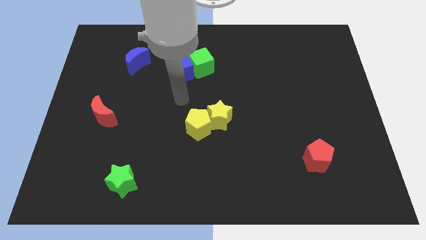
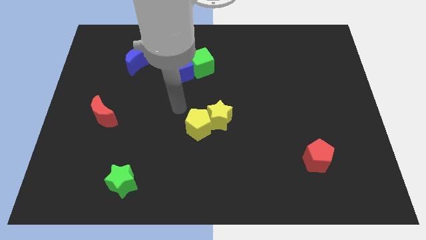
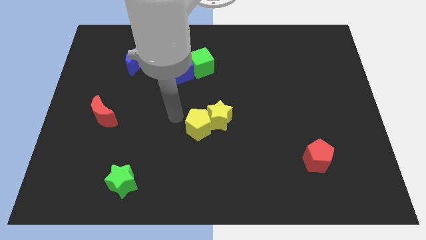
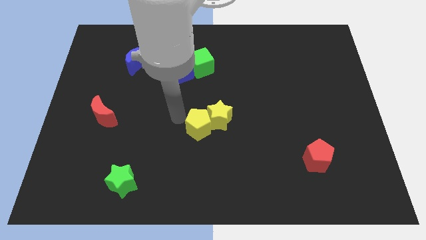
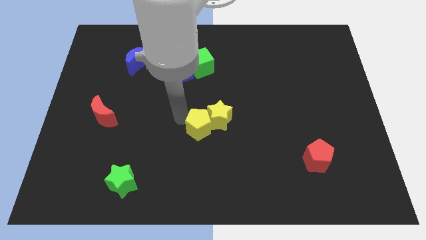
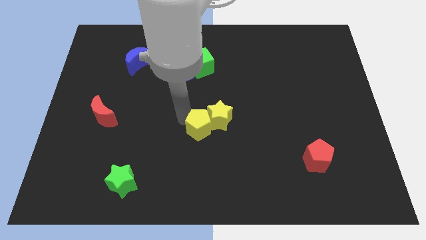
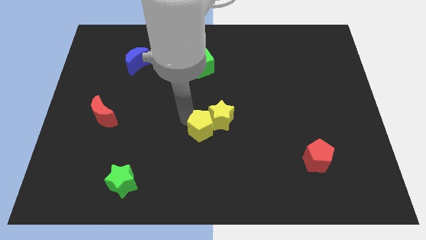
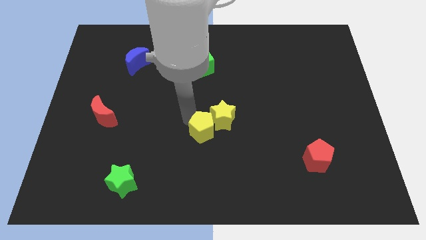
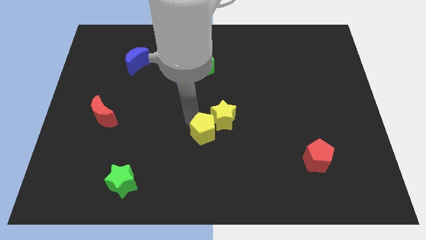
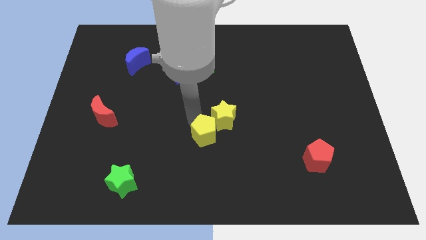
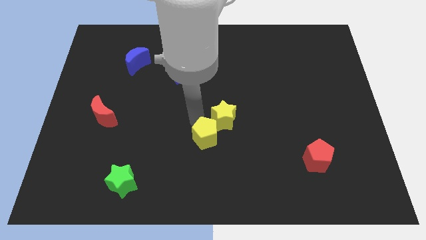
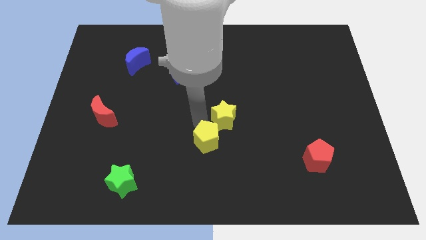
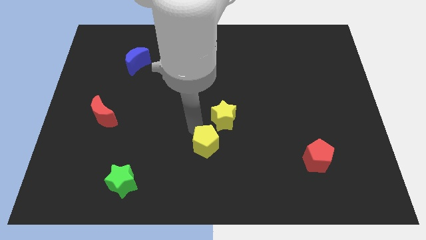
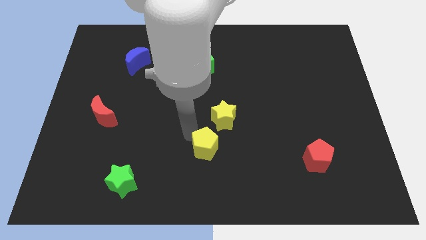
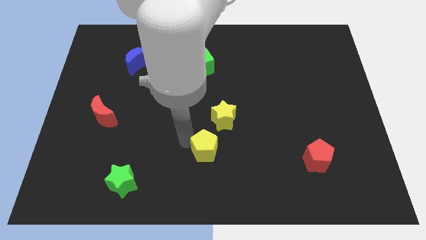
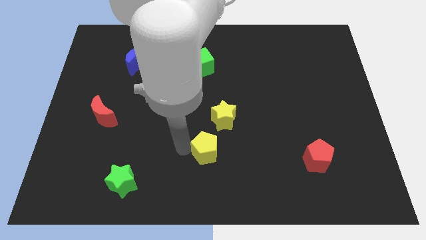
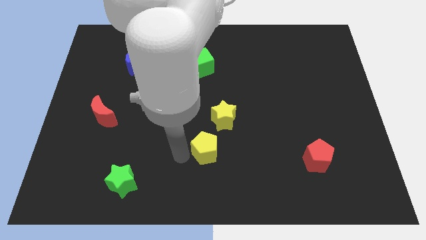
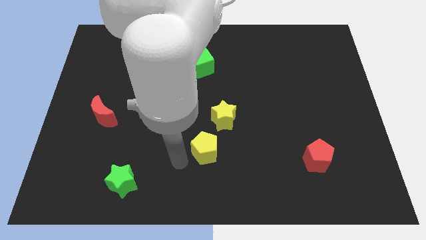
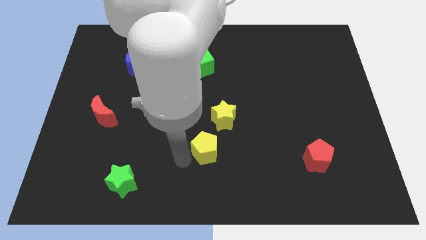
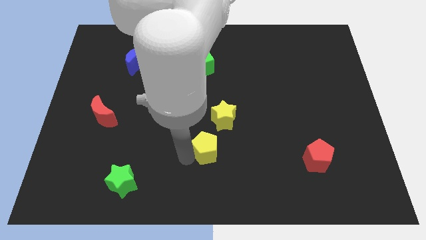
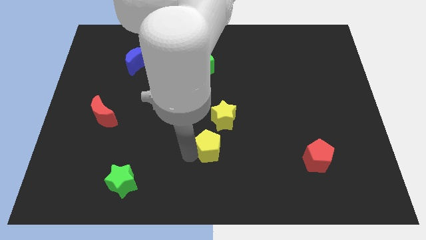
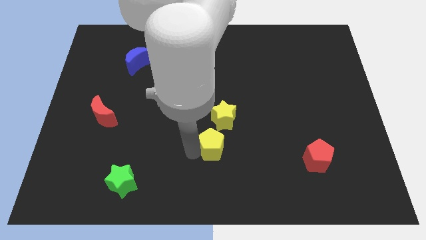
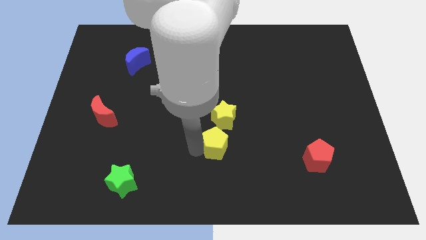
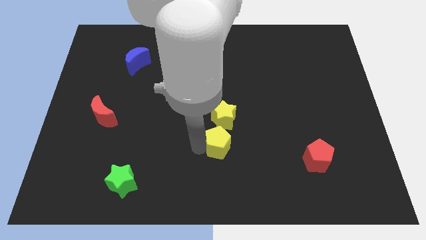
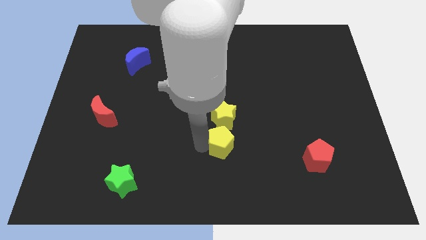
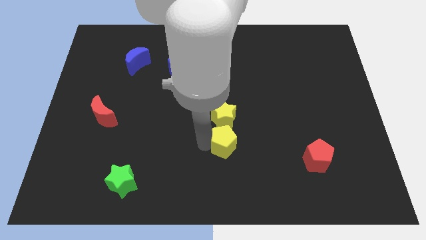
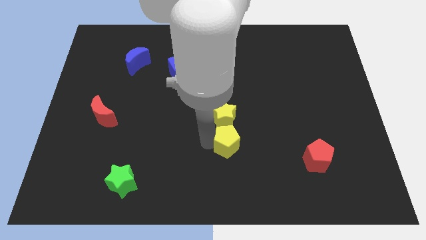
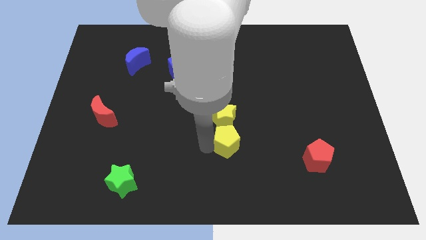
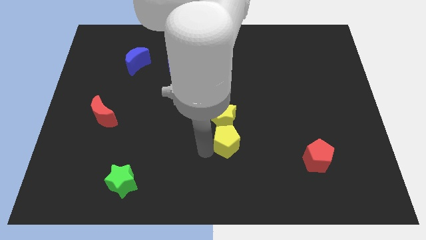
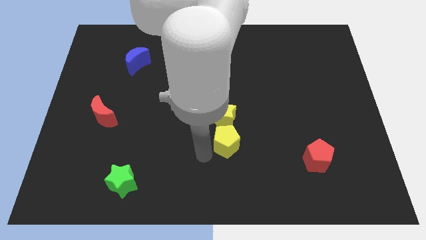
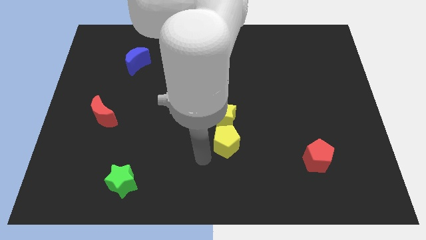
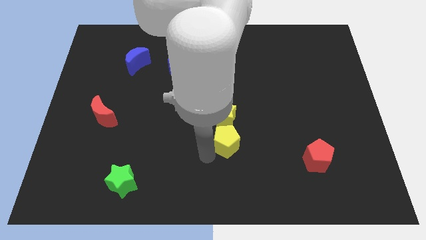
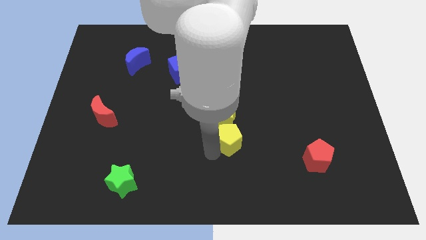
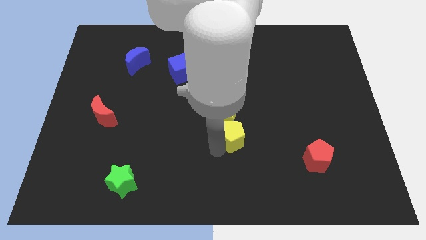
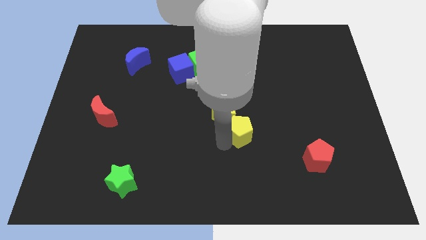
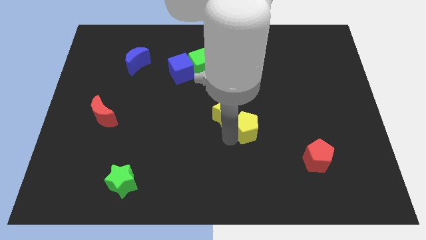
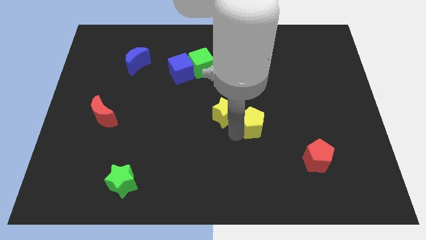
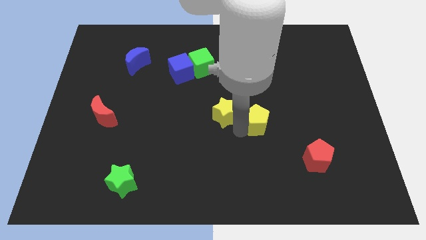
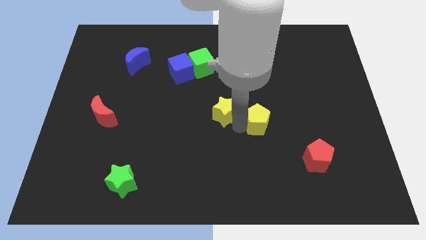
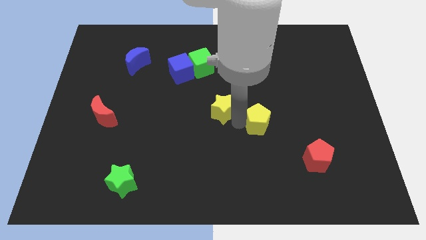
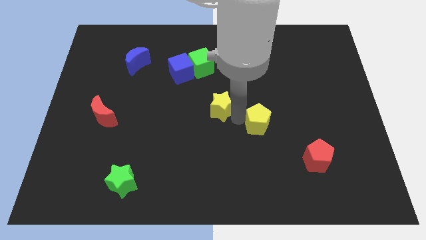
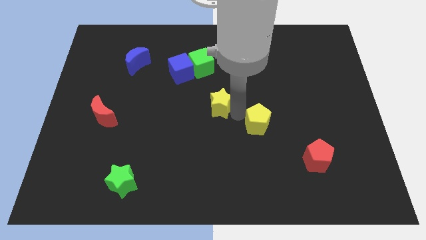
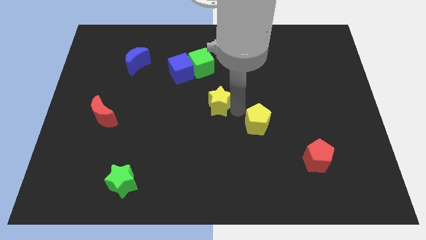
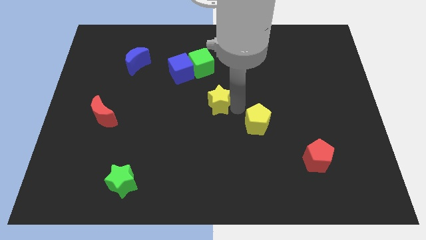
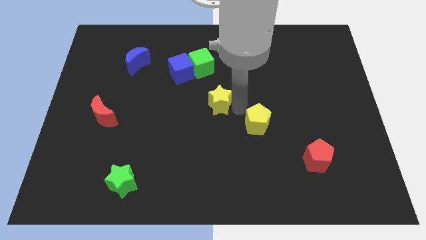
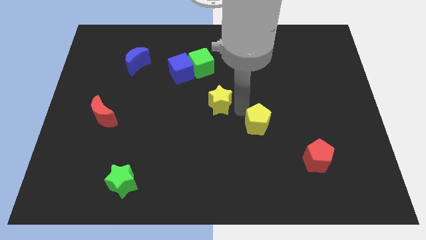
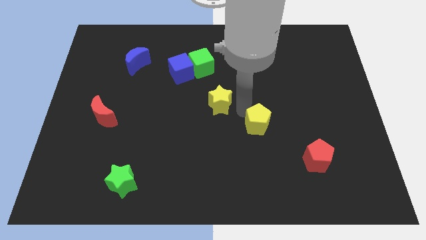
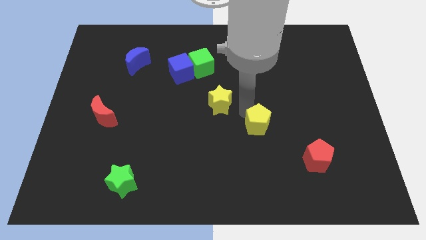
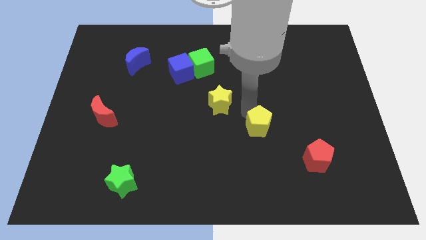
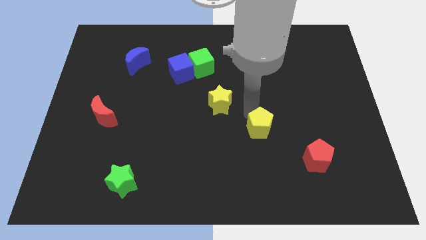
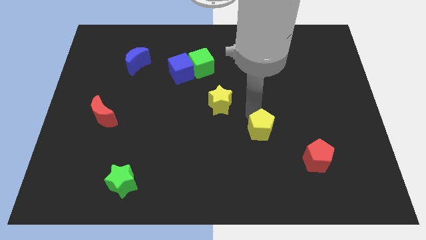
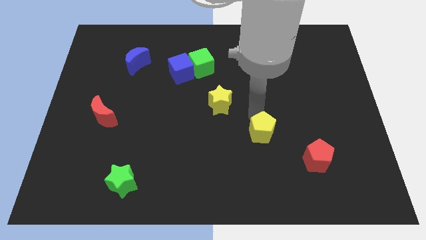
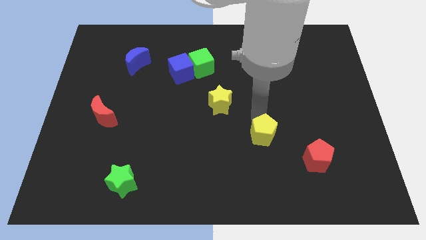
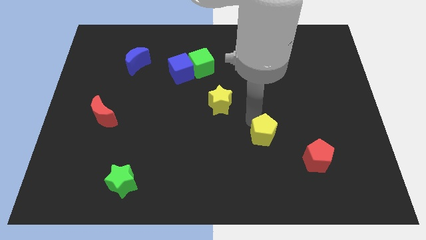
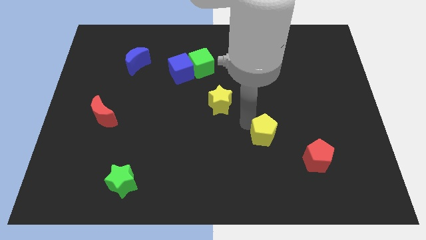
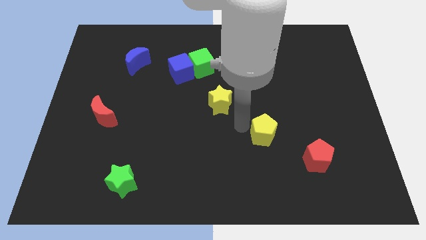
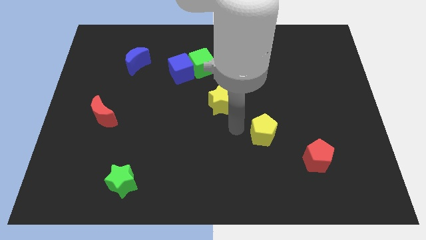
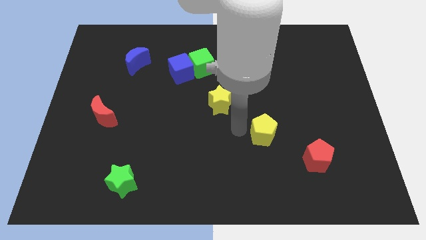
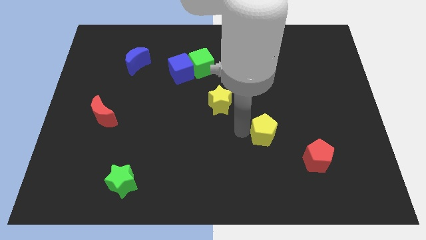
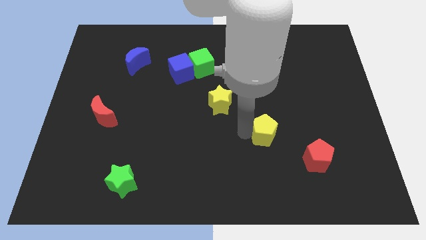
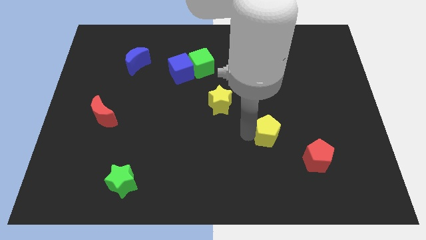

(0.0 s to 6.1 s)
move the yellow pentagon to the top left of the red pentagon

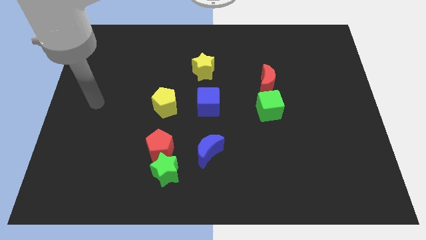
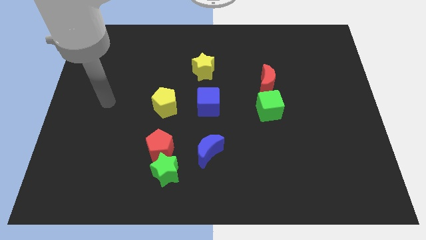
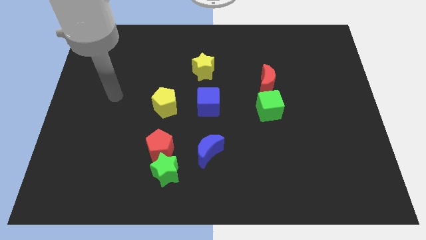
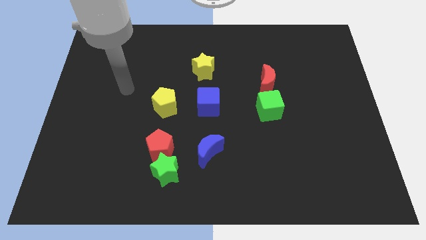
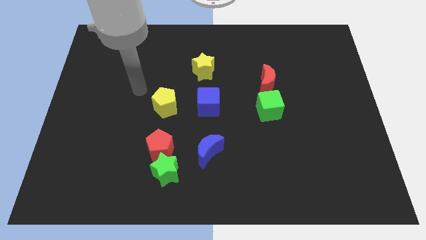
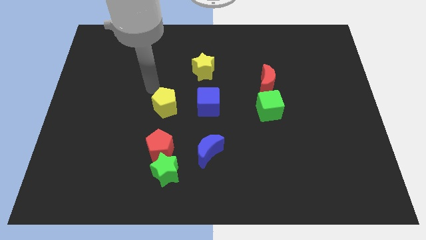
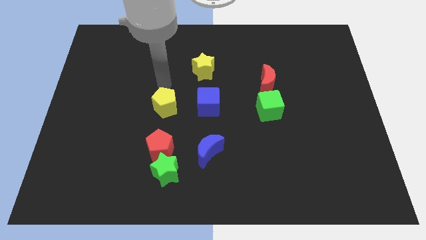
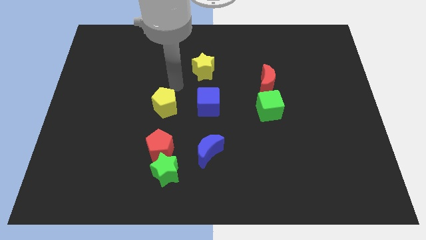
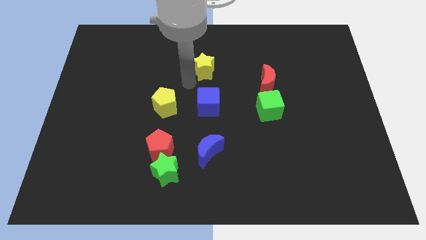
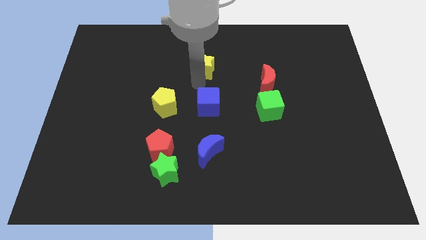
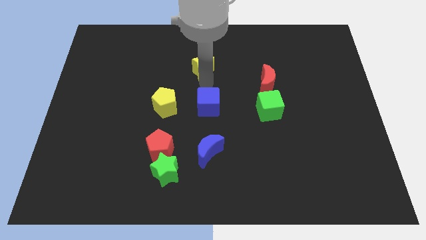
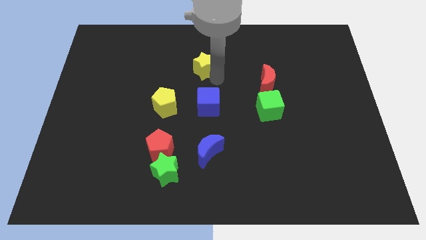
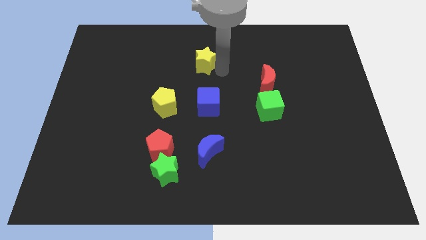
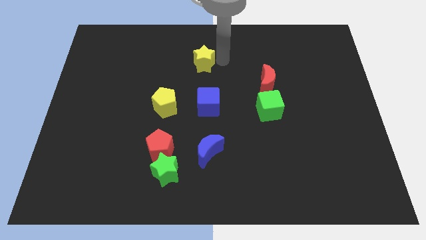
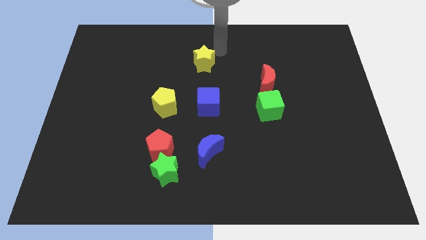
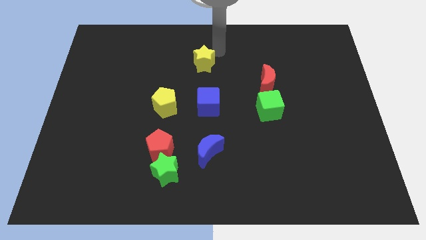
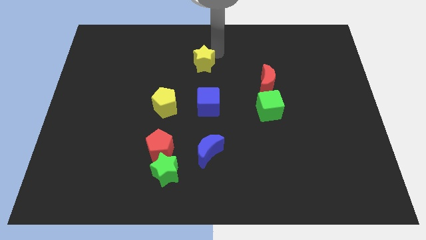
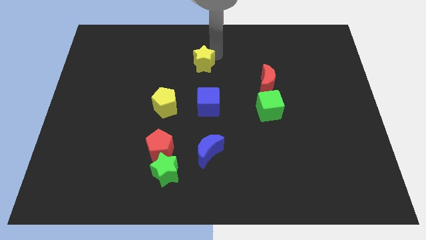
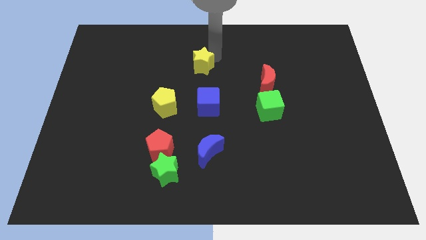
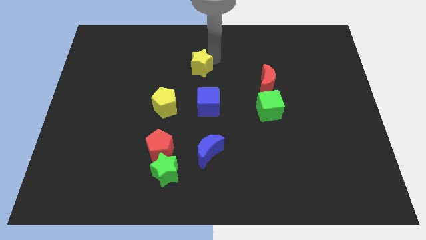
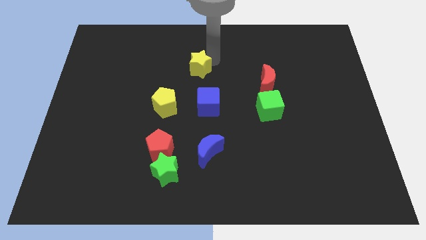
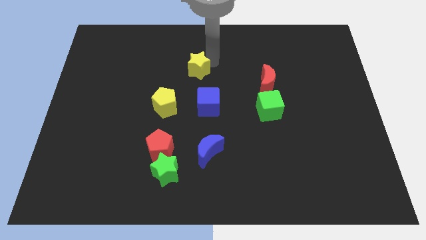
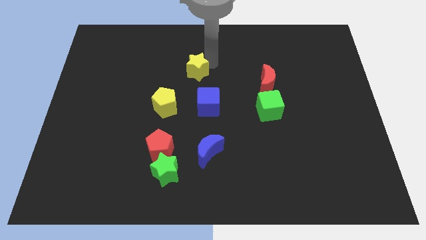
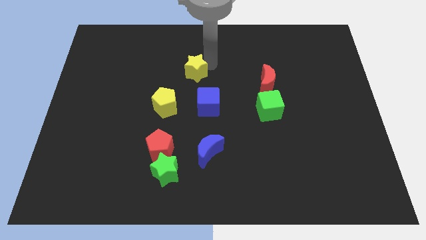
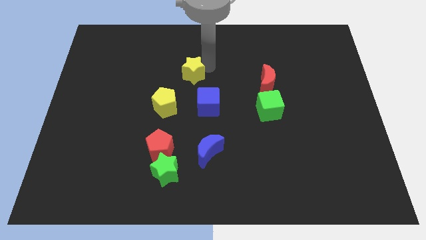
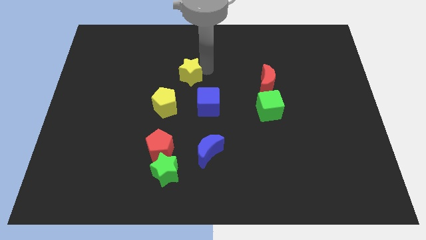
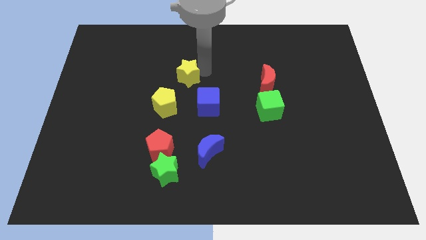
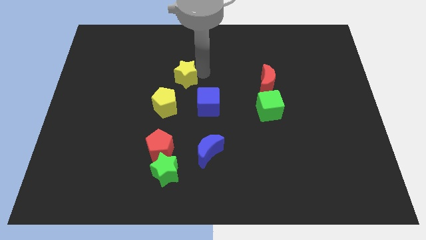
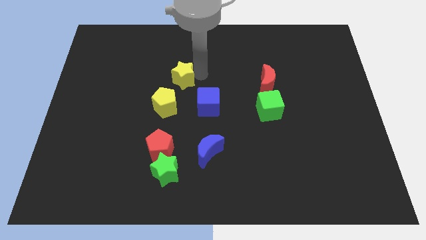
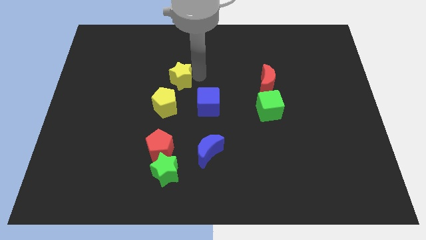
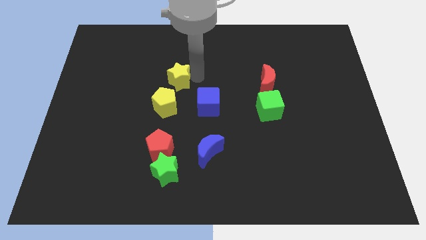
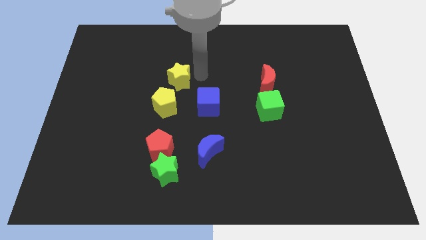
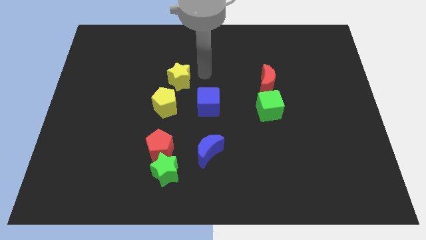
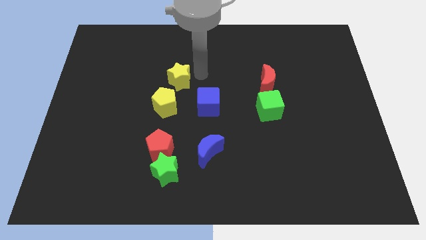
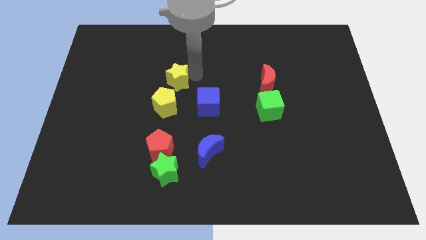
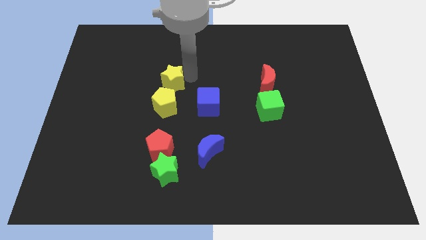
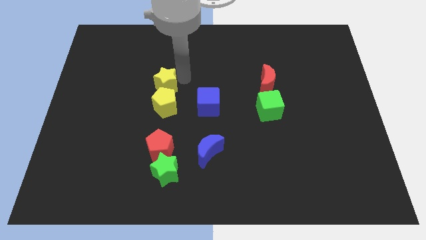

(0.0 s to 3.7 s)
move the yellow star to the top left side of the yellow pentagon
